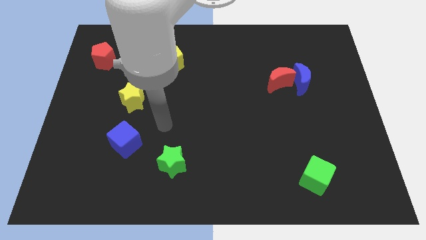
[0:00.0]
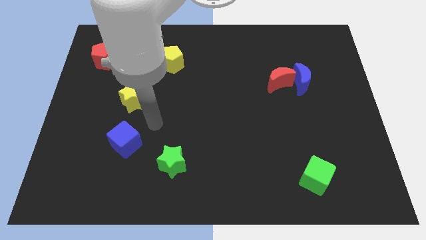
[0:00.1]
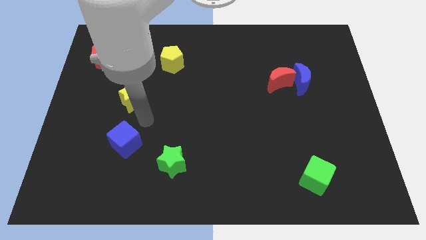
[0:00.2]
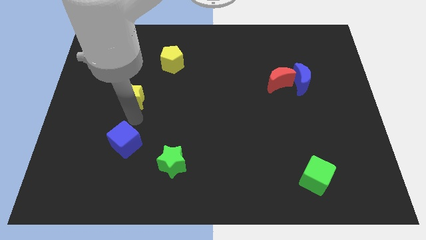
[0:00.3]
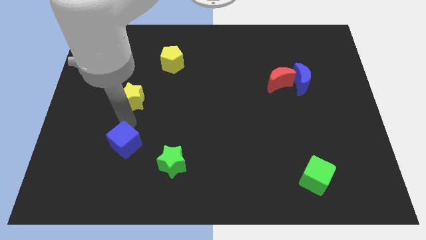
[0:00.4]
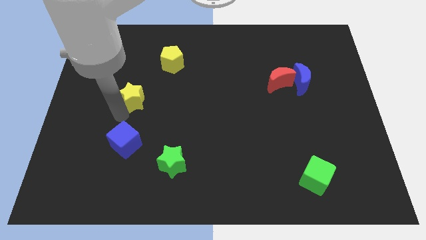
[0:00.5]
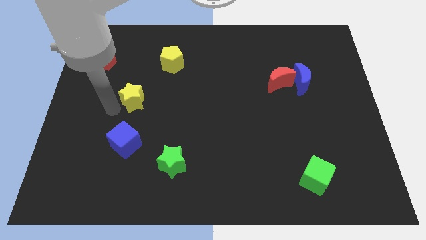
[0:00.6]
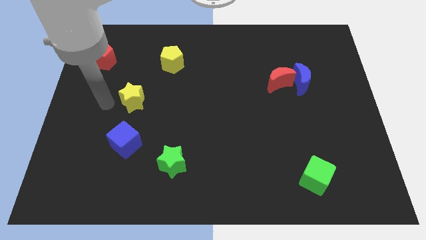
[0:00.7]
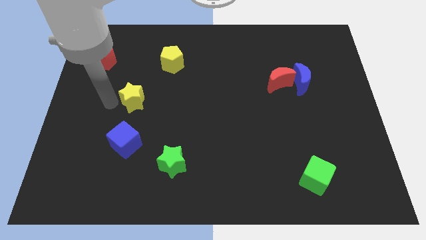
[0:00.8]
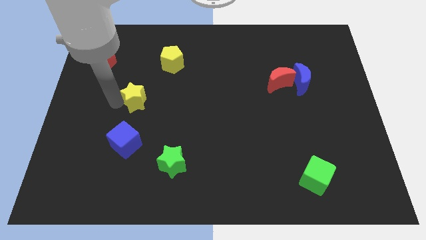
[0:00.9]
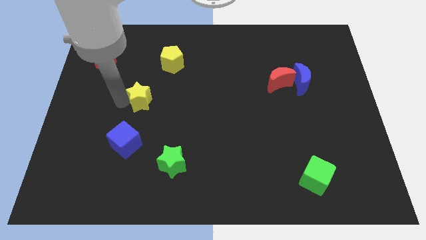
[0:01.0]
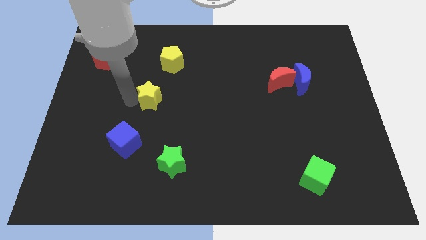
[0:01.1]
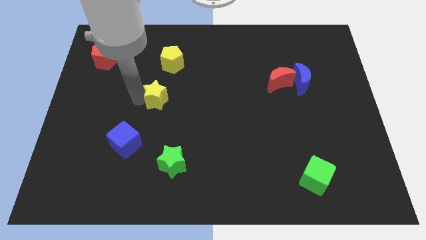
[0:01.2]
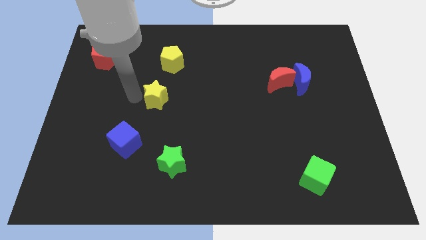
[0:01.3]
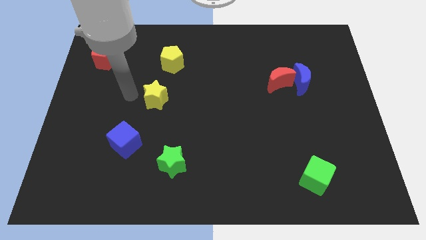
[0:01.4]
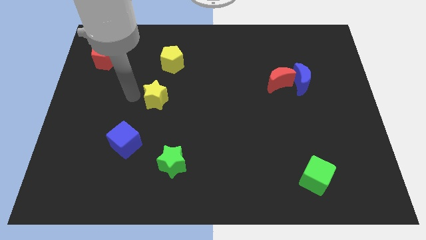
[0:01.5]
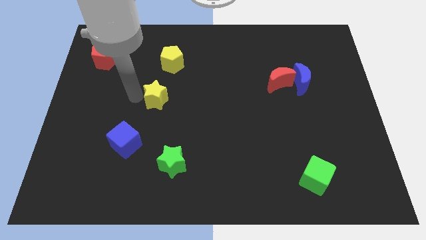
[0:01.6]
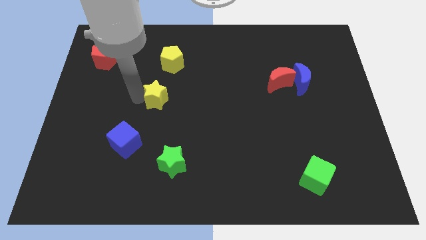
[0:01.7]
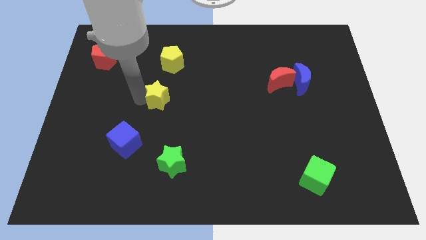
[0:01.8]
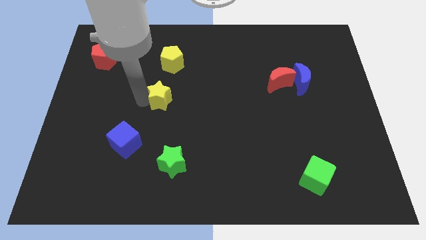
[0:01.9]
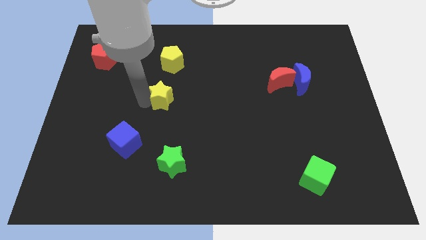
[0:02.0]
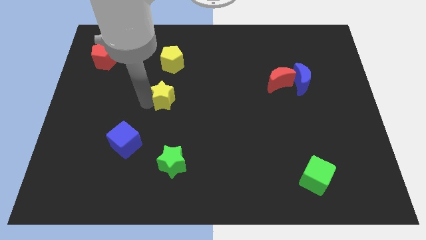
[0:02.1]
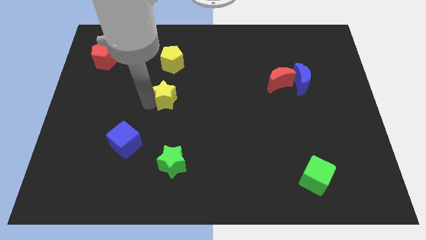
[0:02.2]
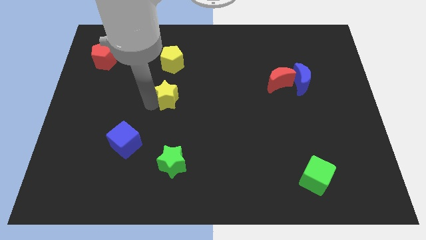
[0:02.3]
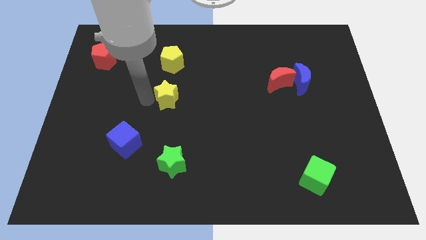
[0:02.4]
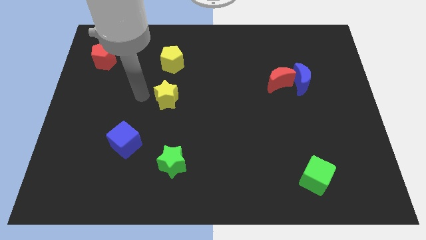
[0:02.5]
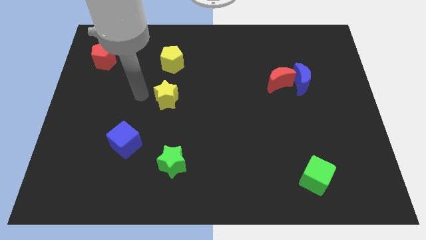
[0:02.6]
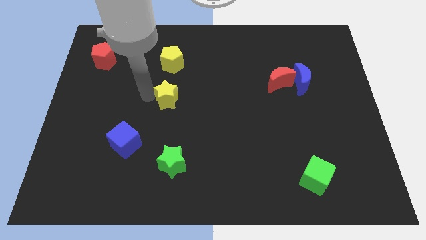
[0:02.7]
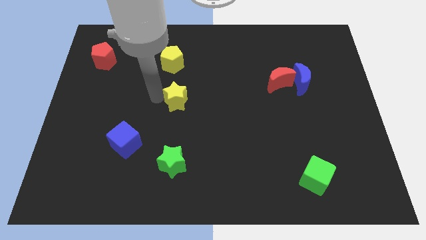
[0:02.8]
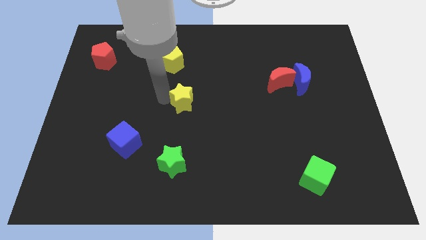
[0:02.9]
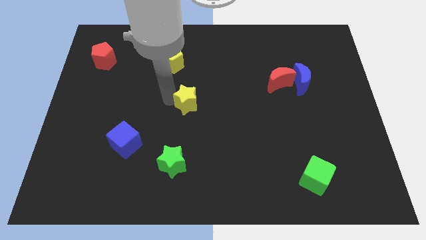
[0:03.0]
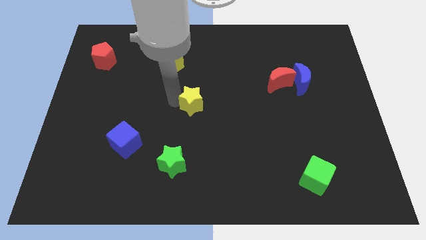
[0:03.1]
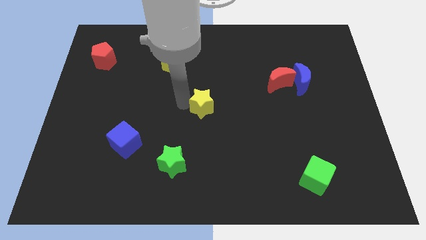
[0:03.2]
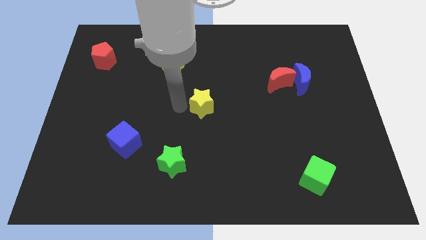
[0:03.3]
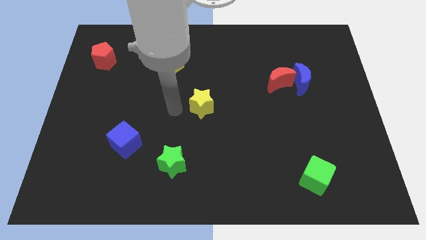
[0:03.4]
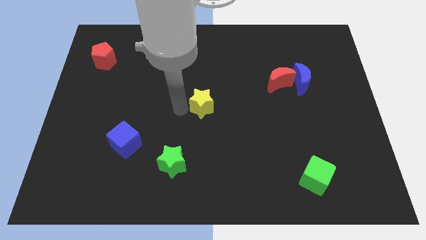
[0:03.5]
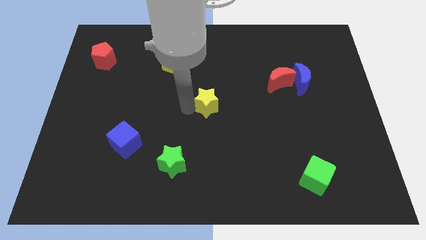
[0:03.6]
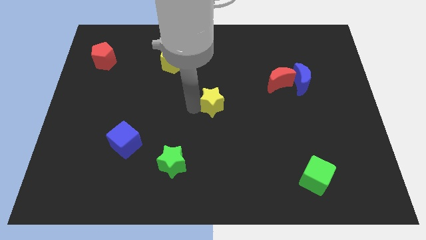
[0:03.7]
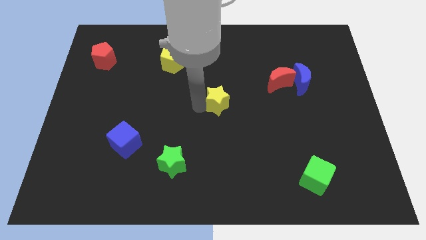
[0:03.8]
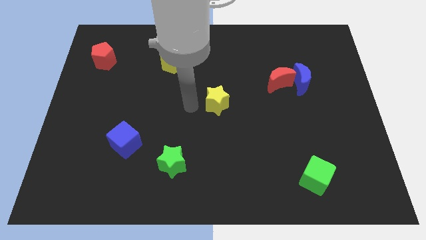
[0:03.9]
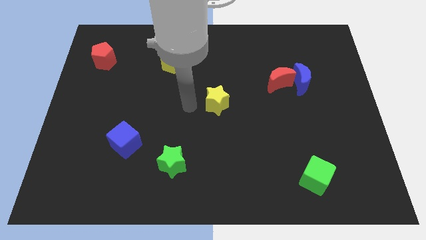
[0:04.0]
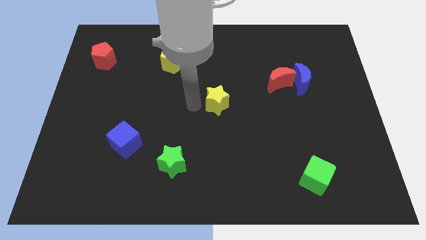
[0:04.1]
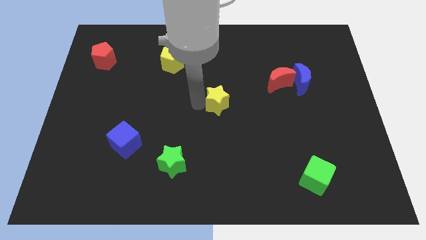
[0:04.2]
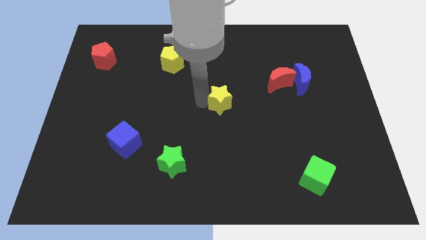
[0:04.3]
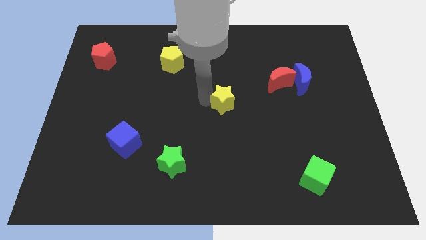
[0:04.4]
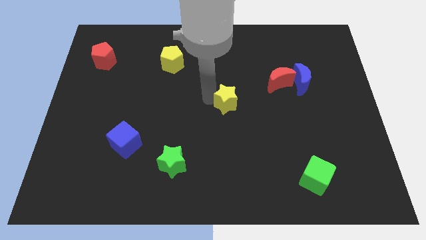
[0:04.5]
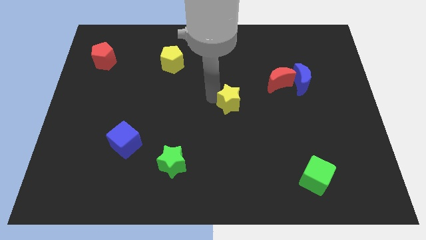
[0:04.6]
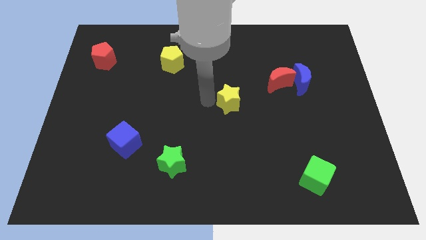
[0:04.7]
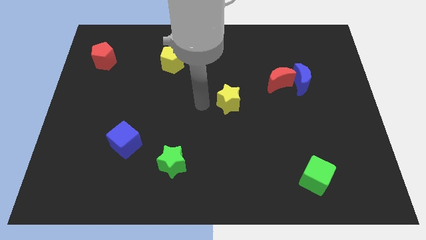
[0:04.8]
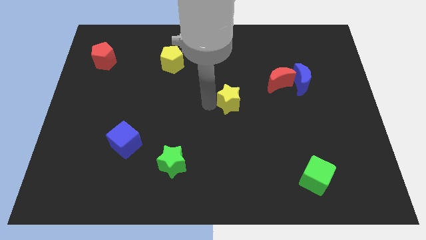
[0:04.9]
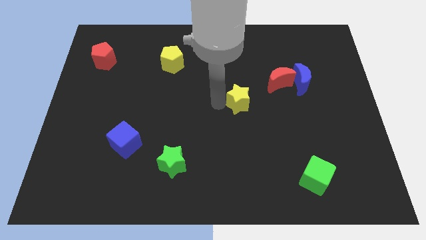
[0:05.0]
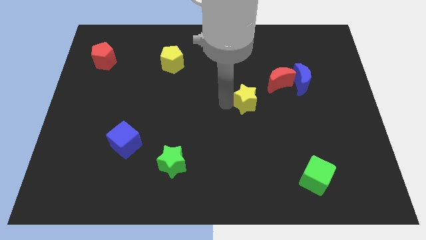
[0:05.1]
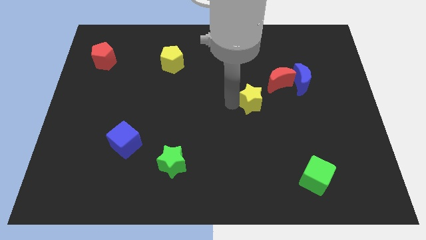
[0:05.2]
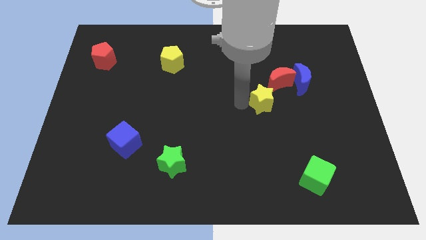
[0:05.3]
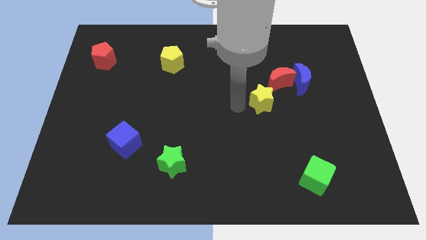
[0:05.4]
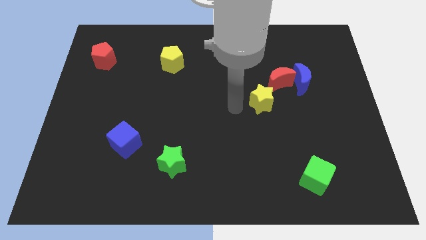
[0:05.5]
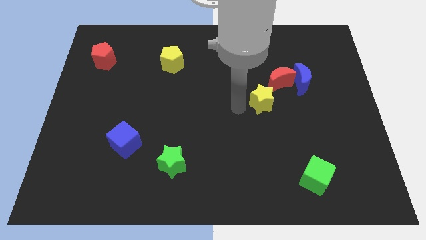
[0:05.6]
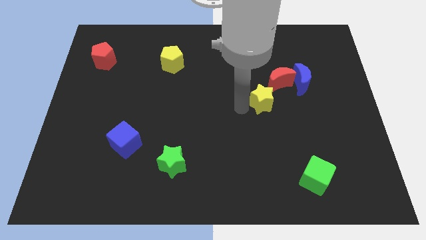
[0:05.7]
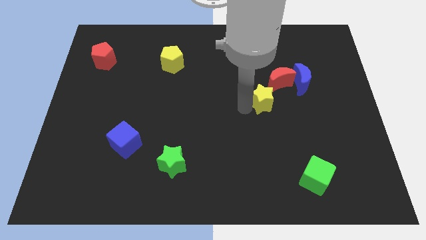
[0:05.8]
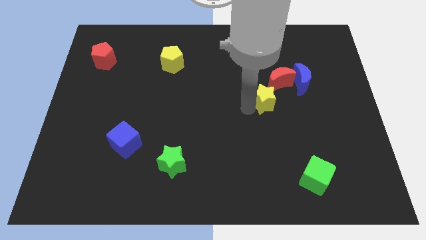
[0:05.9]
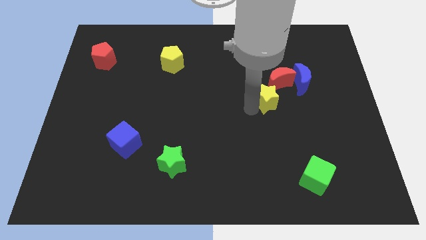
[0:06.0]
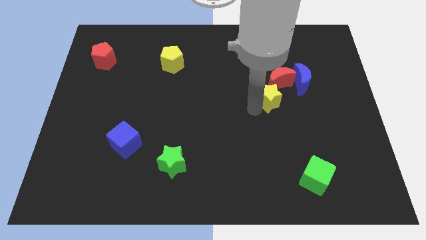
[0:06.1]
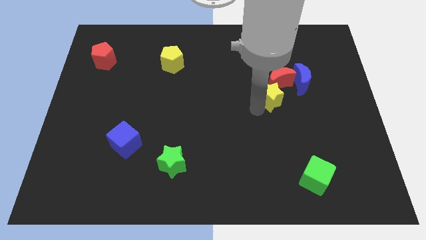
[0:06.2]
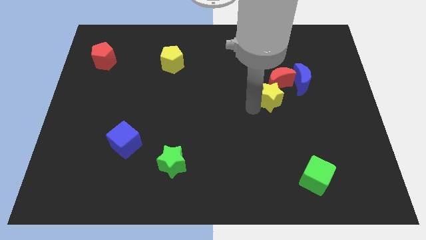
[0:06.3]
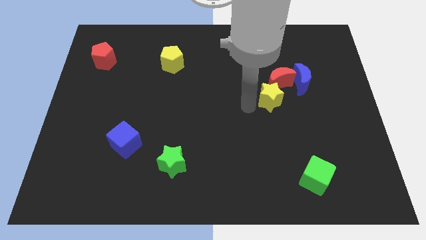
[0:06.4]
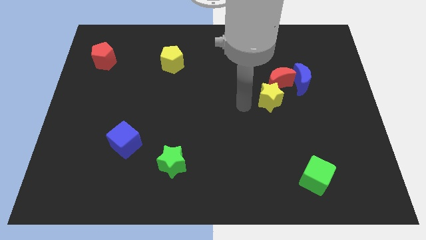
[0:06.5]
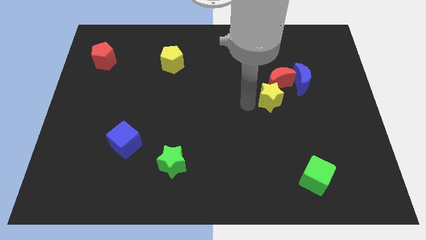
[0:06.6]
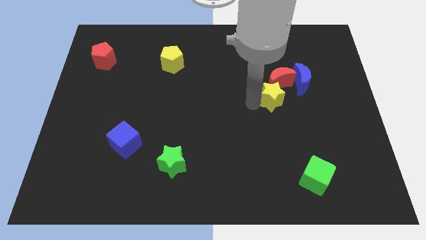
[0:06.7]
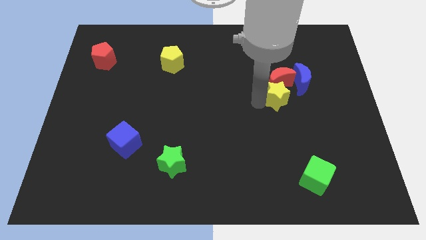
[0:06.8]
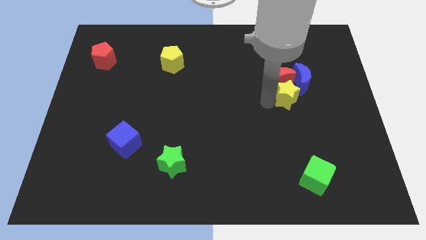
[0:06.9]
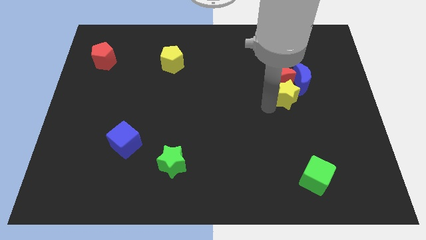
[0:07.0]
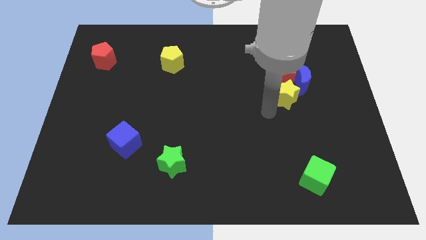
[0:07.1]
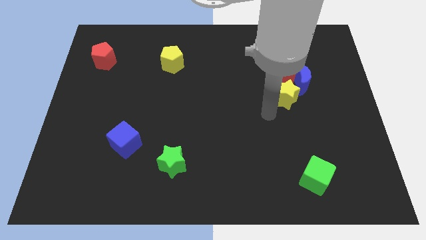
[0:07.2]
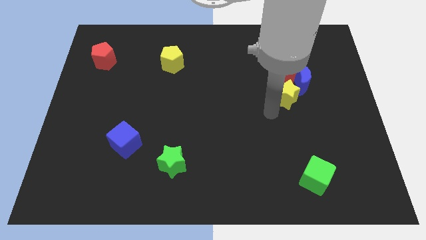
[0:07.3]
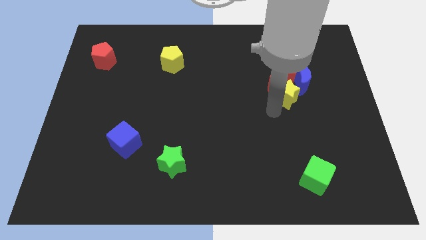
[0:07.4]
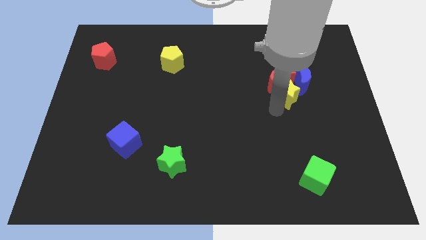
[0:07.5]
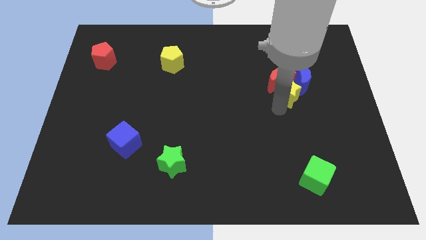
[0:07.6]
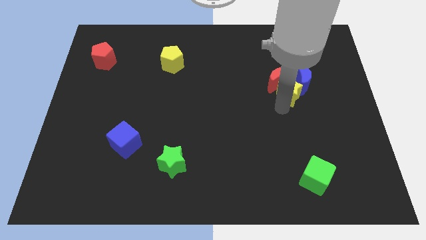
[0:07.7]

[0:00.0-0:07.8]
push the yellow star next to the blue moon
